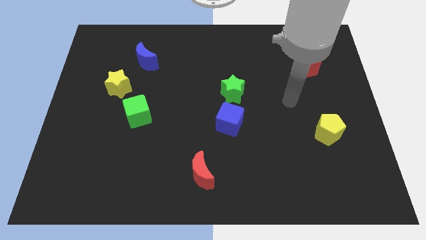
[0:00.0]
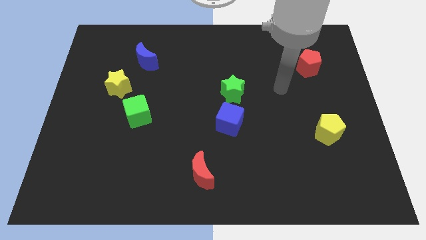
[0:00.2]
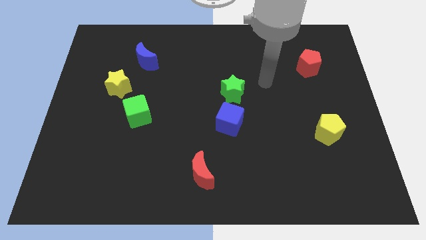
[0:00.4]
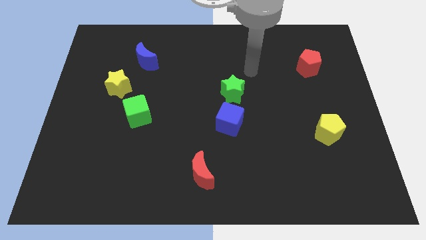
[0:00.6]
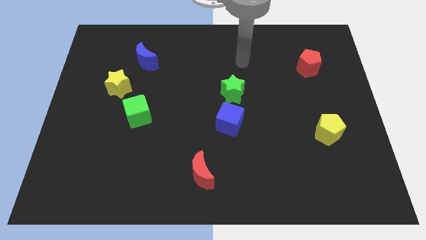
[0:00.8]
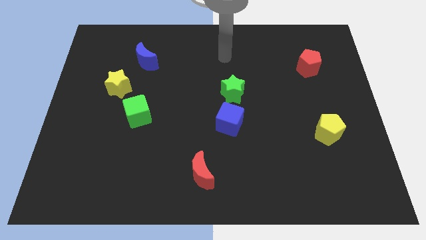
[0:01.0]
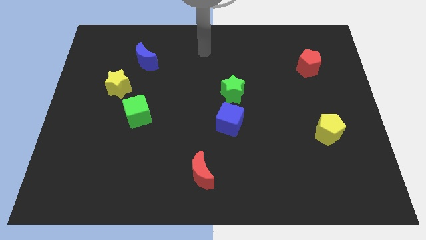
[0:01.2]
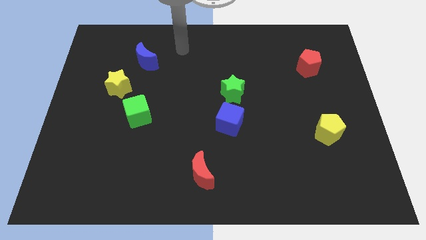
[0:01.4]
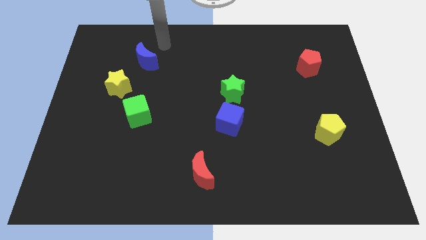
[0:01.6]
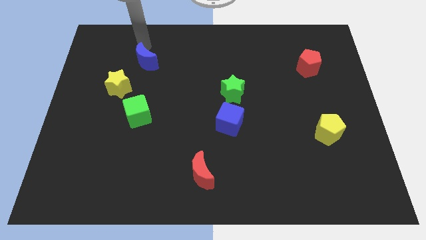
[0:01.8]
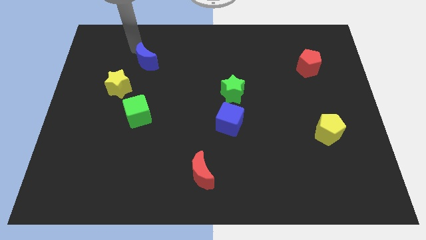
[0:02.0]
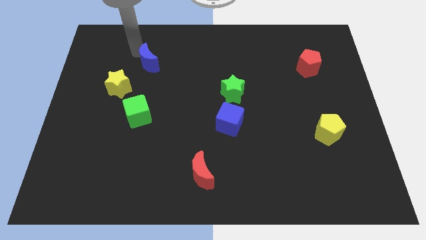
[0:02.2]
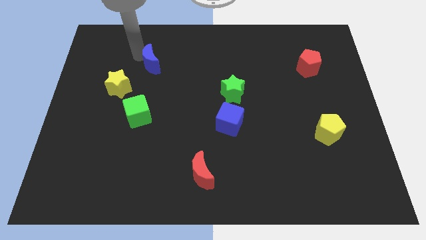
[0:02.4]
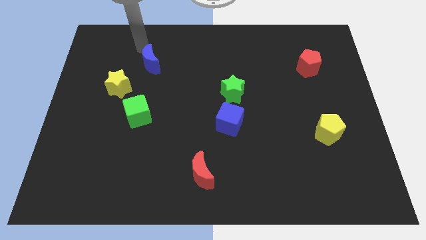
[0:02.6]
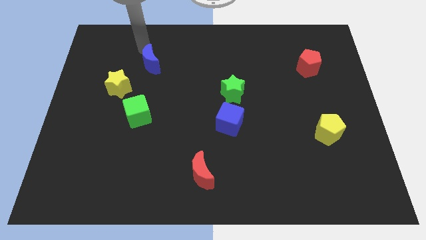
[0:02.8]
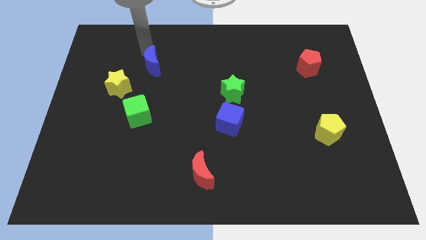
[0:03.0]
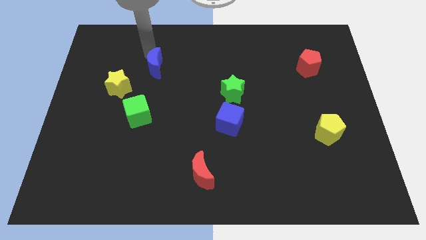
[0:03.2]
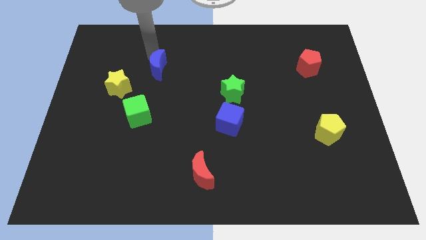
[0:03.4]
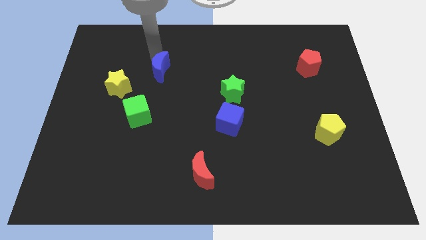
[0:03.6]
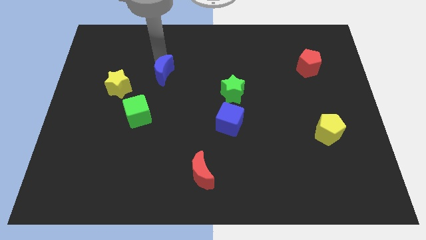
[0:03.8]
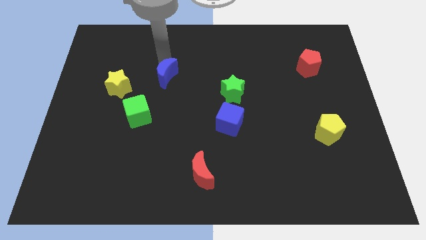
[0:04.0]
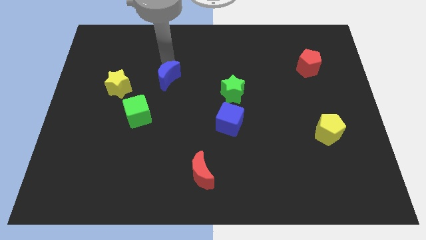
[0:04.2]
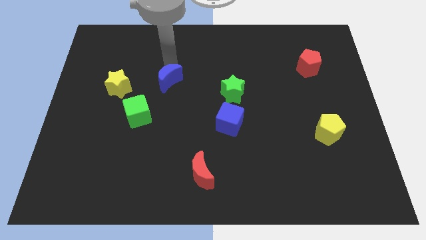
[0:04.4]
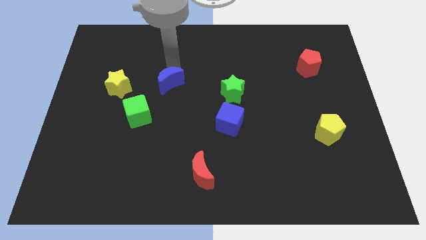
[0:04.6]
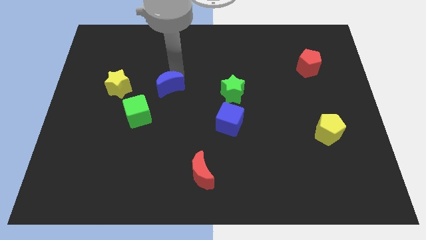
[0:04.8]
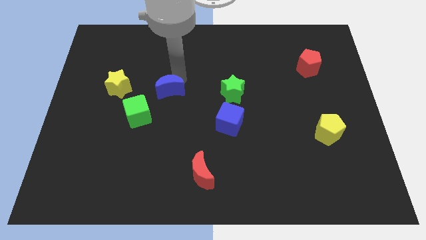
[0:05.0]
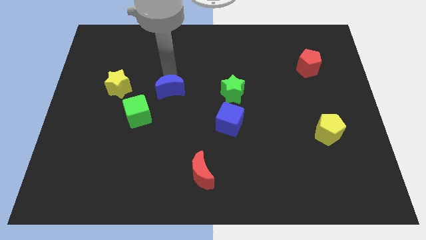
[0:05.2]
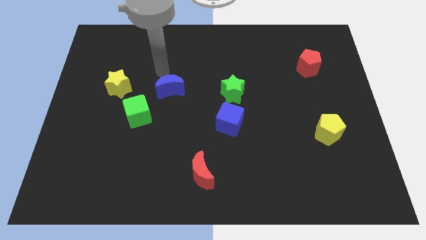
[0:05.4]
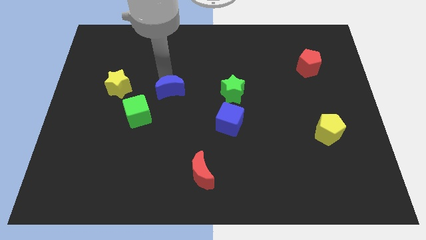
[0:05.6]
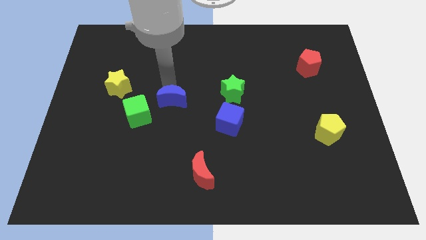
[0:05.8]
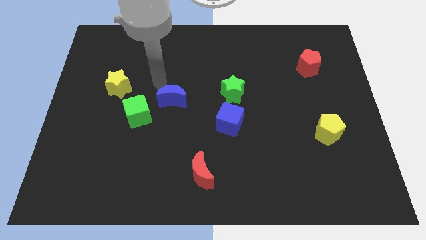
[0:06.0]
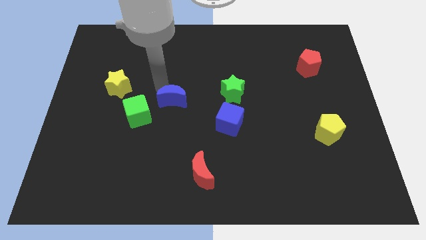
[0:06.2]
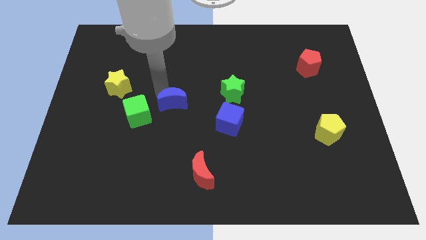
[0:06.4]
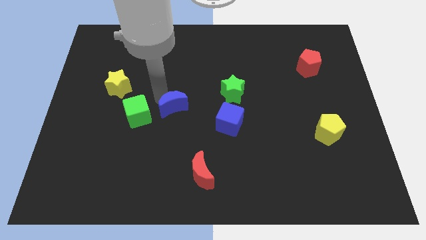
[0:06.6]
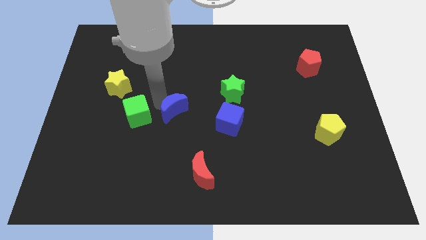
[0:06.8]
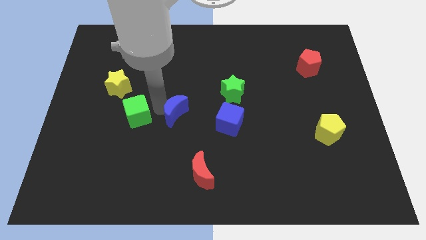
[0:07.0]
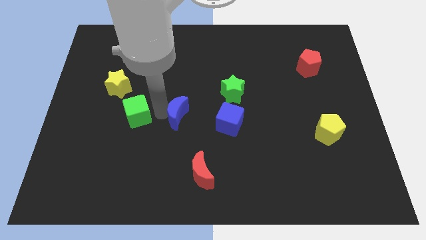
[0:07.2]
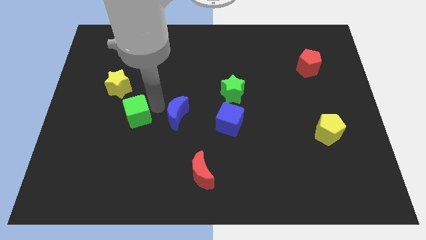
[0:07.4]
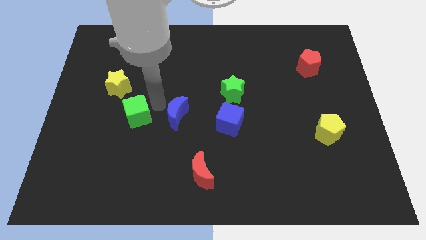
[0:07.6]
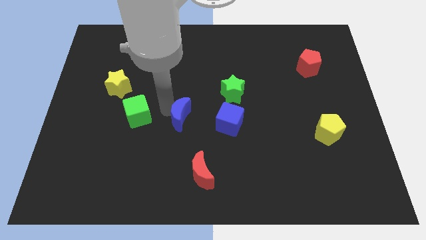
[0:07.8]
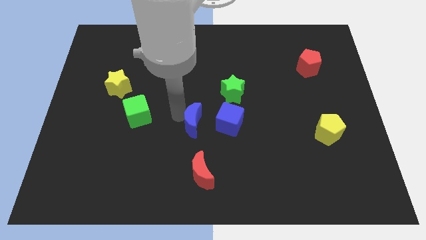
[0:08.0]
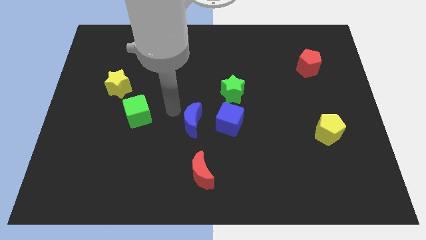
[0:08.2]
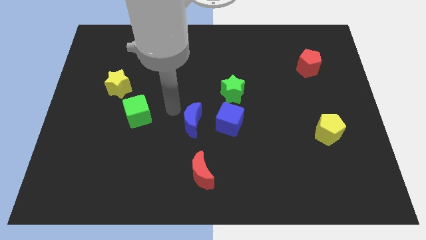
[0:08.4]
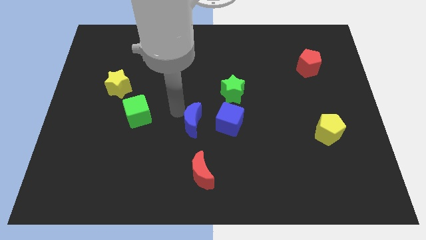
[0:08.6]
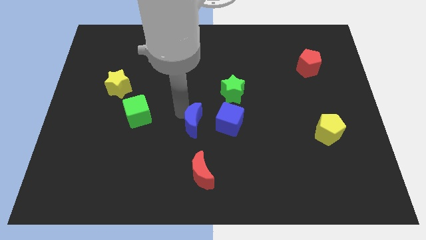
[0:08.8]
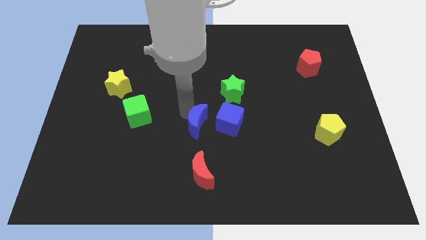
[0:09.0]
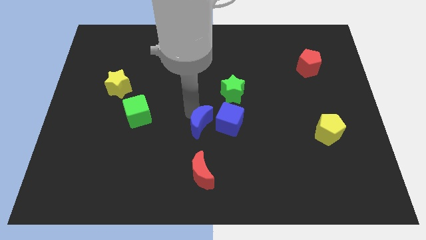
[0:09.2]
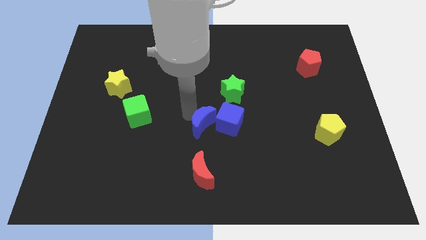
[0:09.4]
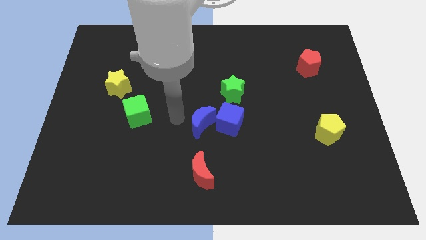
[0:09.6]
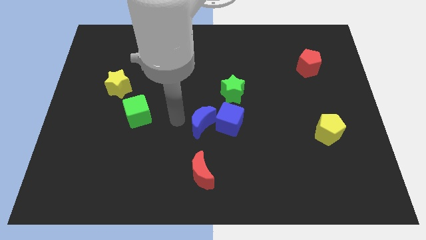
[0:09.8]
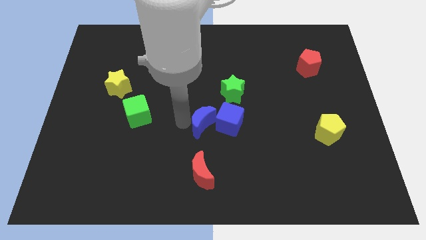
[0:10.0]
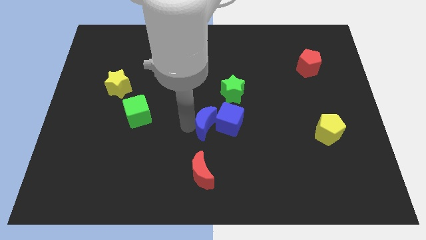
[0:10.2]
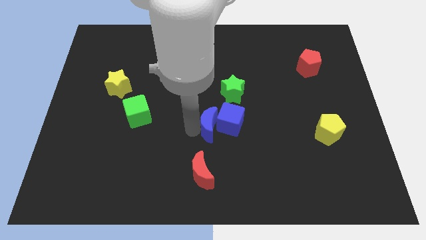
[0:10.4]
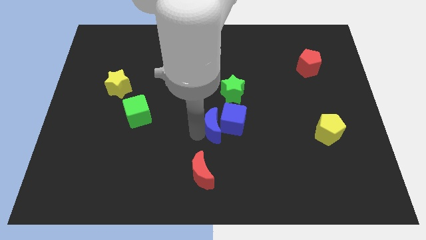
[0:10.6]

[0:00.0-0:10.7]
move the blue moon to the bottom of the green star

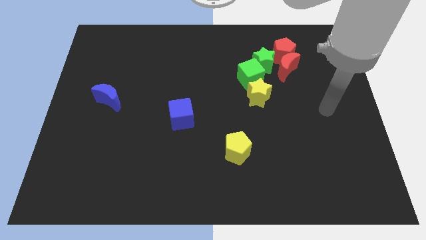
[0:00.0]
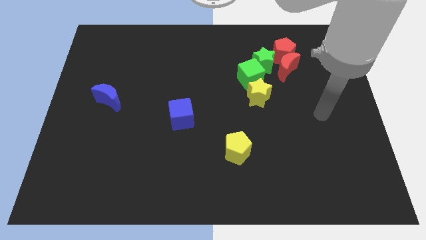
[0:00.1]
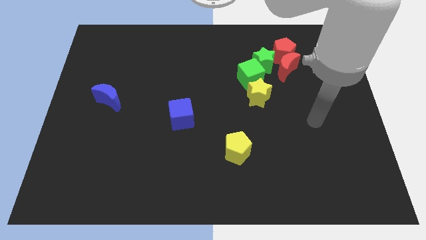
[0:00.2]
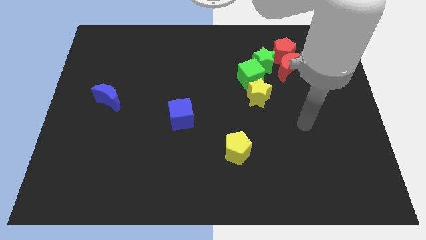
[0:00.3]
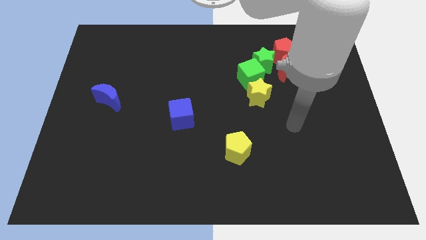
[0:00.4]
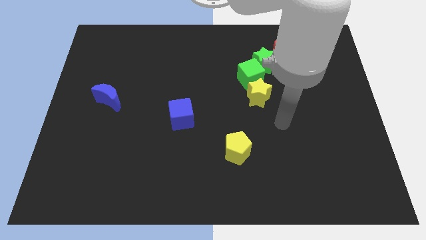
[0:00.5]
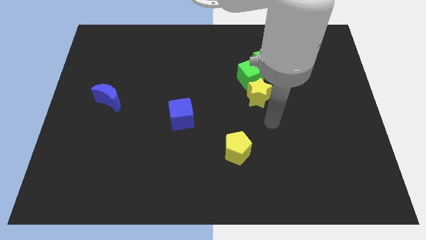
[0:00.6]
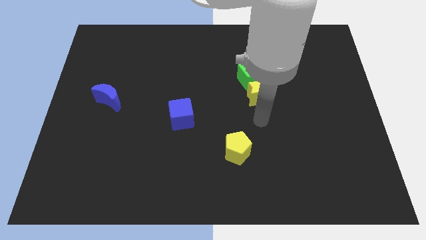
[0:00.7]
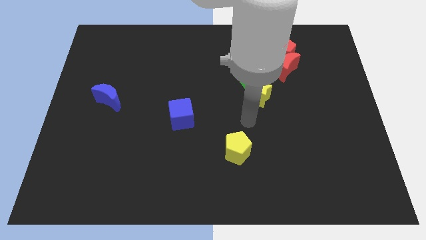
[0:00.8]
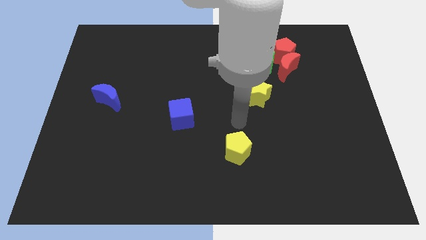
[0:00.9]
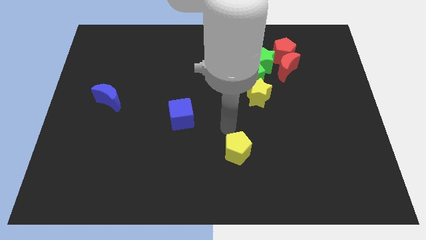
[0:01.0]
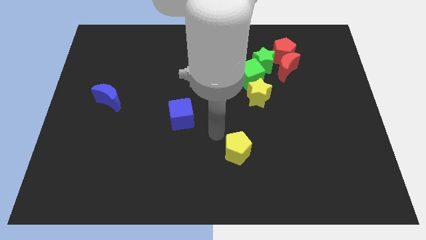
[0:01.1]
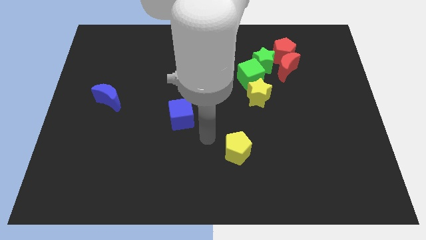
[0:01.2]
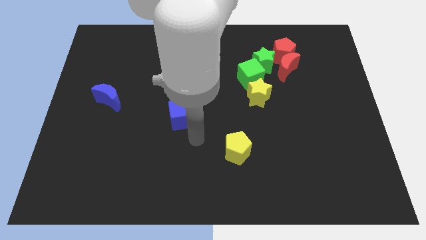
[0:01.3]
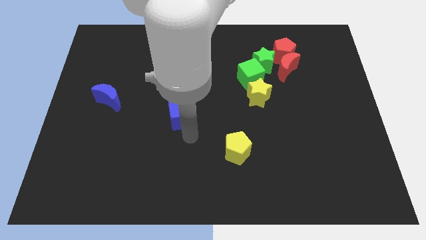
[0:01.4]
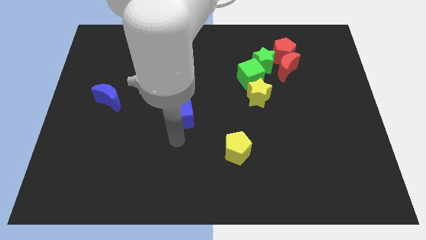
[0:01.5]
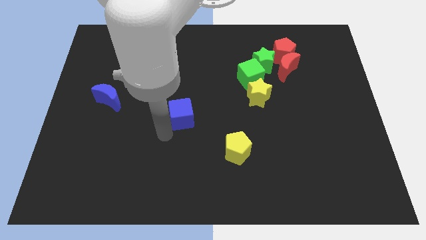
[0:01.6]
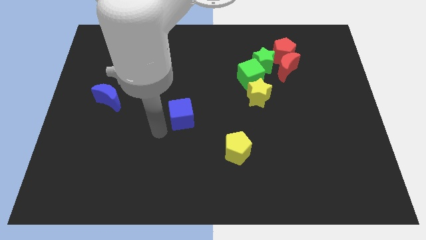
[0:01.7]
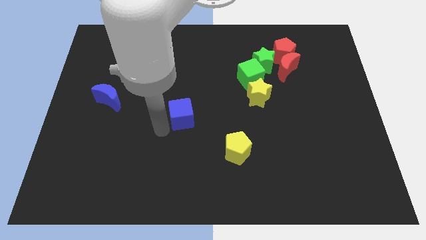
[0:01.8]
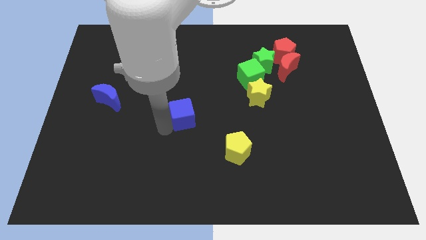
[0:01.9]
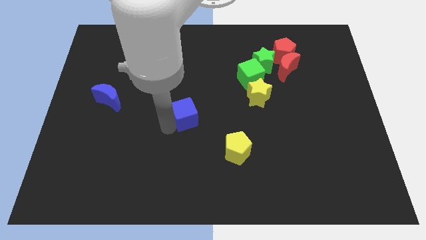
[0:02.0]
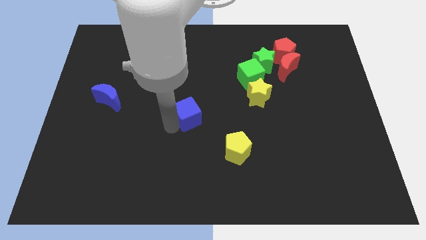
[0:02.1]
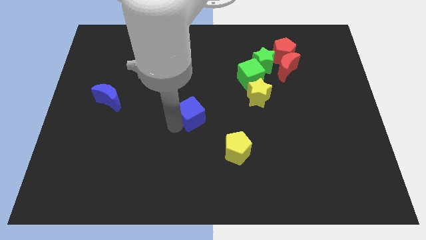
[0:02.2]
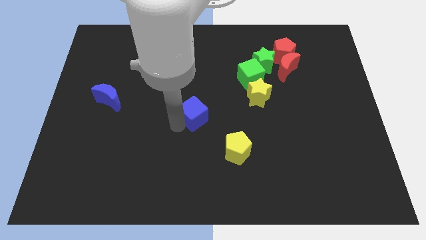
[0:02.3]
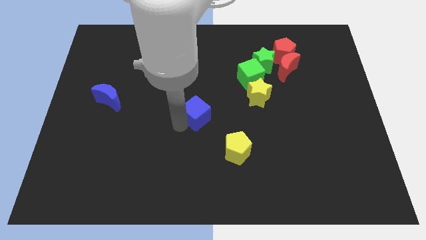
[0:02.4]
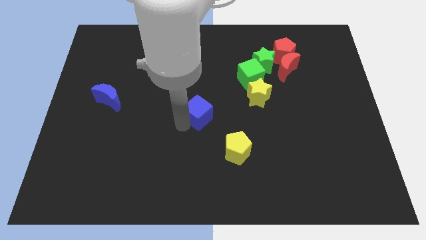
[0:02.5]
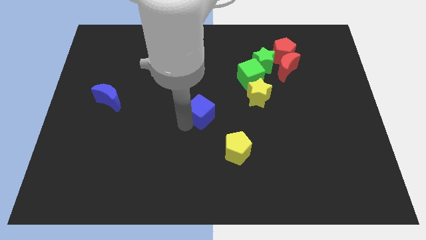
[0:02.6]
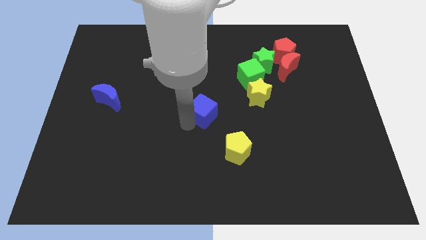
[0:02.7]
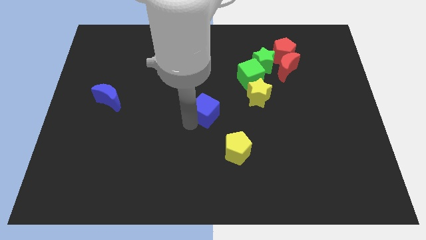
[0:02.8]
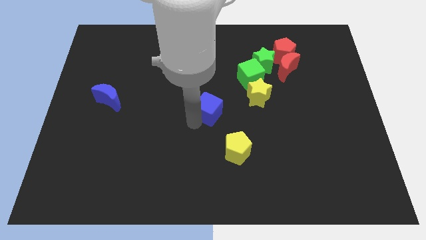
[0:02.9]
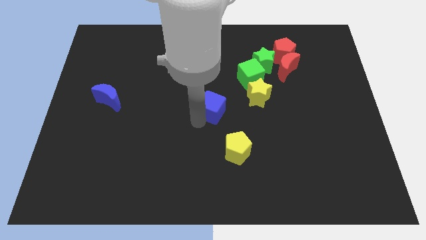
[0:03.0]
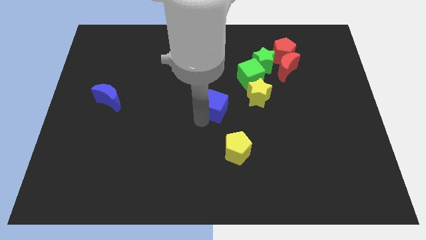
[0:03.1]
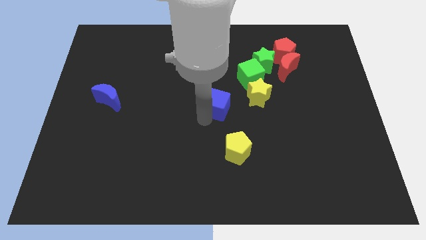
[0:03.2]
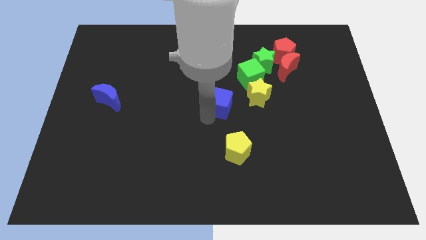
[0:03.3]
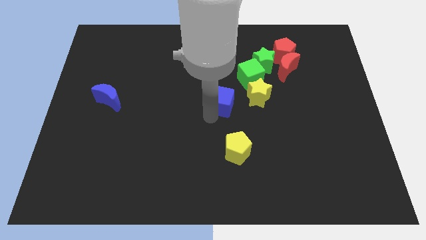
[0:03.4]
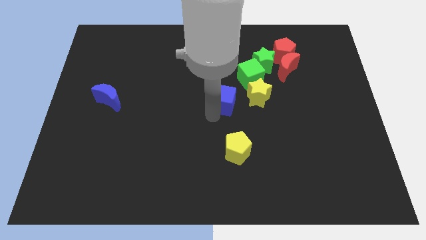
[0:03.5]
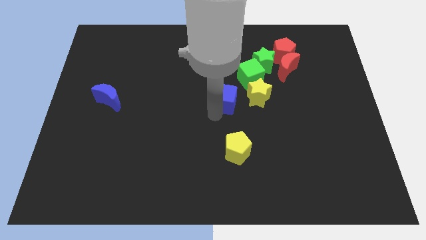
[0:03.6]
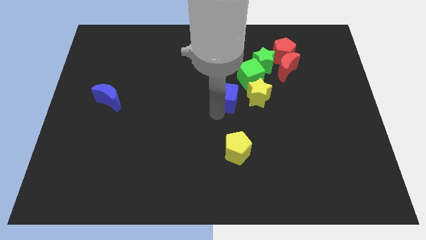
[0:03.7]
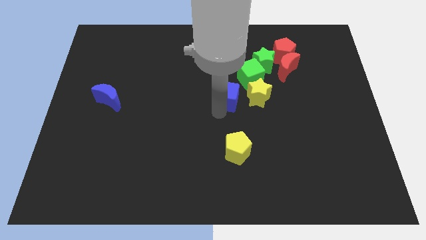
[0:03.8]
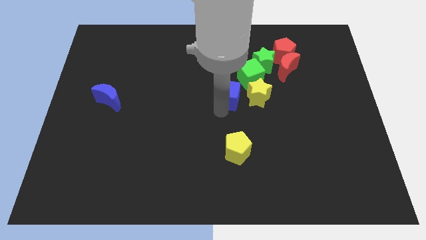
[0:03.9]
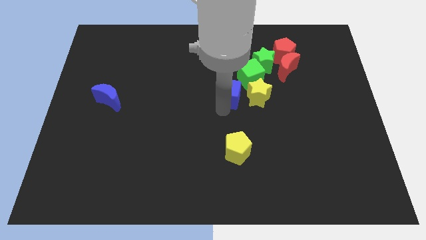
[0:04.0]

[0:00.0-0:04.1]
move the blue cube to the top left side of the yellow star
